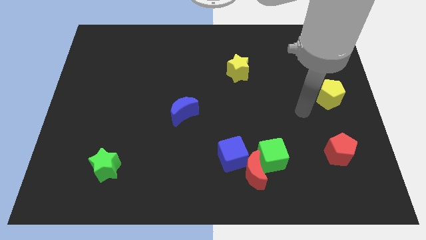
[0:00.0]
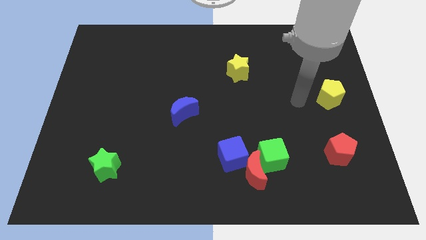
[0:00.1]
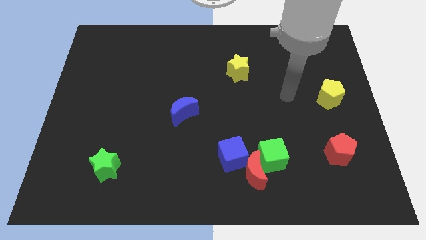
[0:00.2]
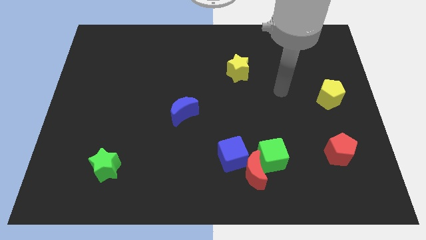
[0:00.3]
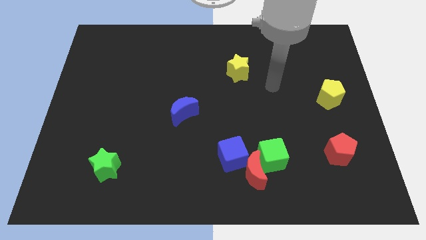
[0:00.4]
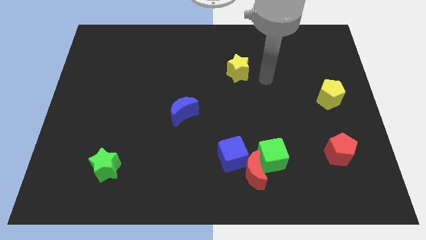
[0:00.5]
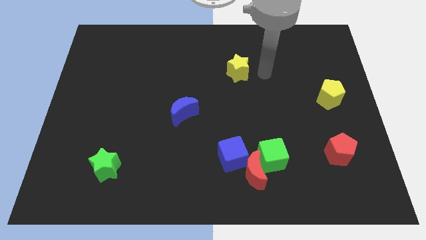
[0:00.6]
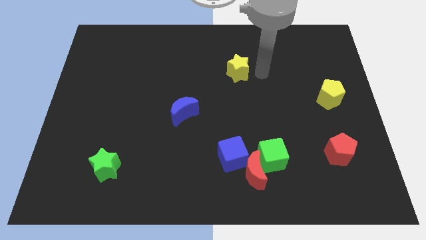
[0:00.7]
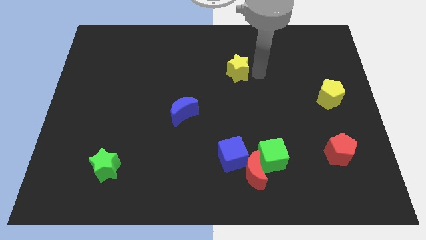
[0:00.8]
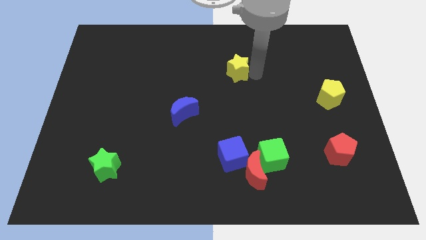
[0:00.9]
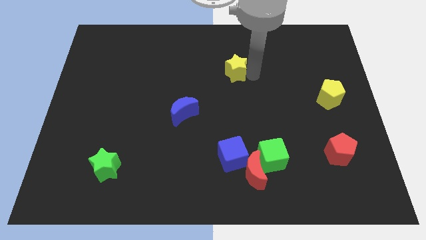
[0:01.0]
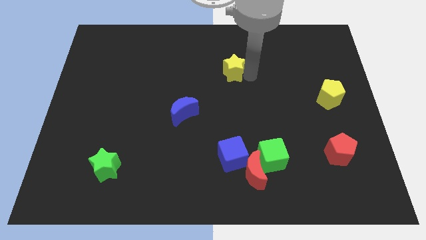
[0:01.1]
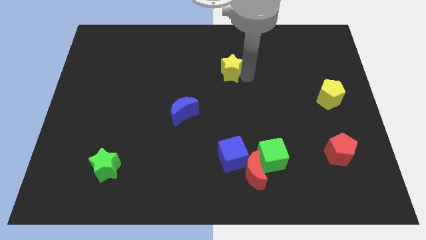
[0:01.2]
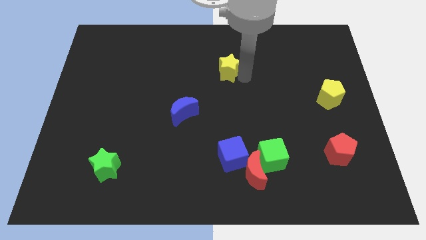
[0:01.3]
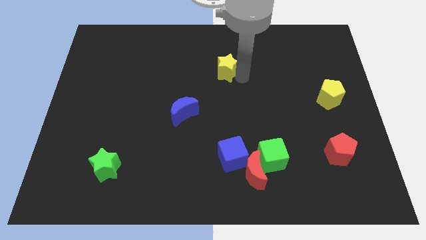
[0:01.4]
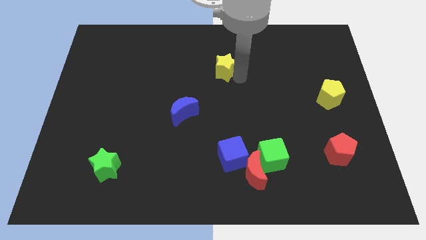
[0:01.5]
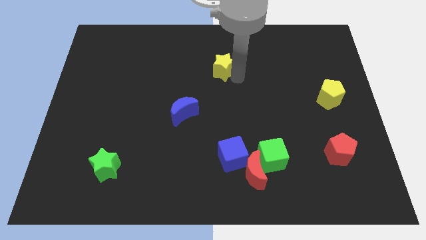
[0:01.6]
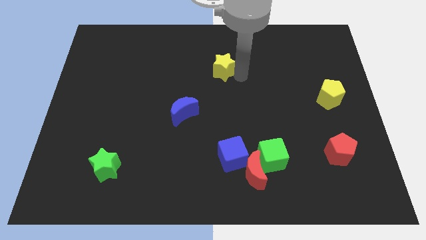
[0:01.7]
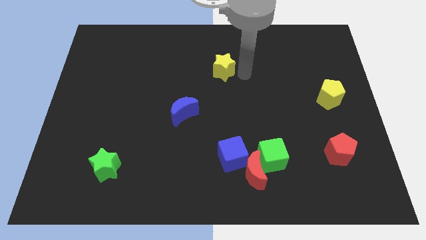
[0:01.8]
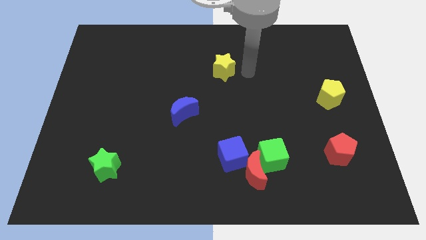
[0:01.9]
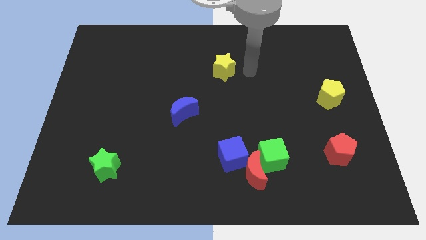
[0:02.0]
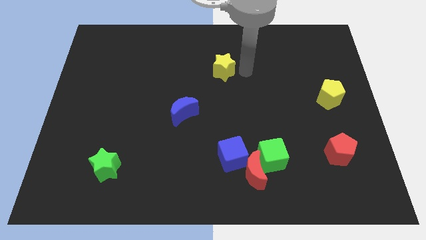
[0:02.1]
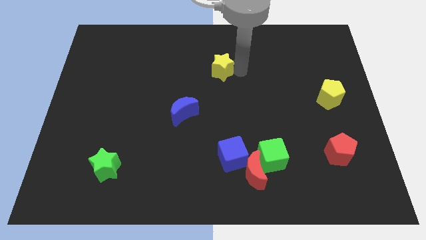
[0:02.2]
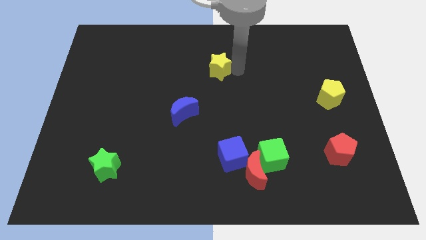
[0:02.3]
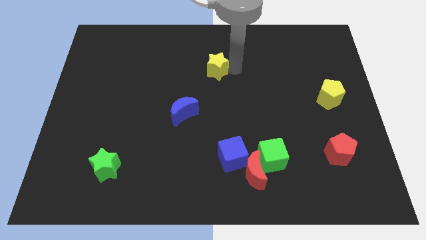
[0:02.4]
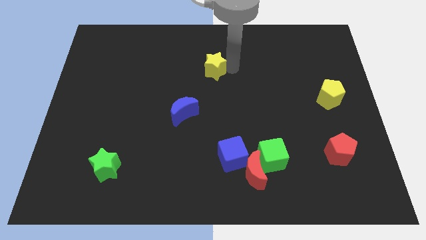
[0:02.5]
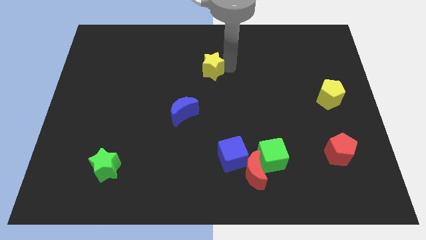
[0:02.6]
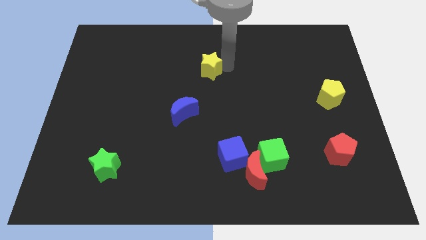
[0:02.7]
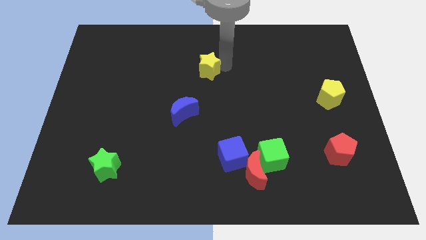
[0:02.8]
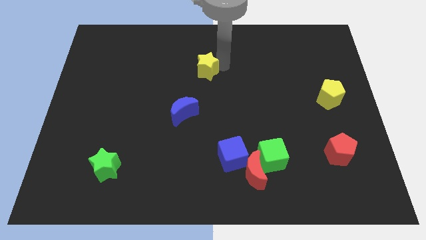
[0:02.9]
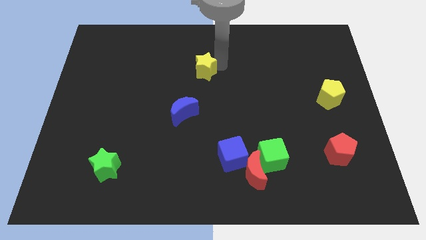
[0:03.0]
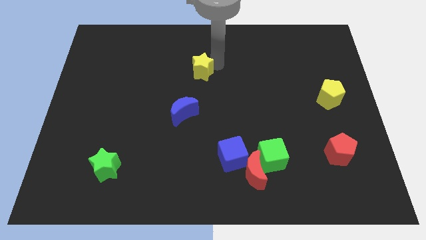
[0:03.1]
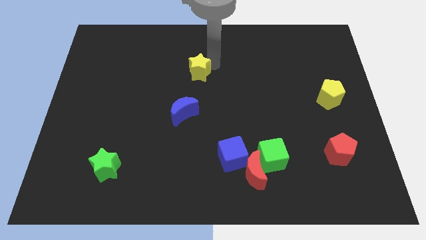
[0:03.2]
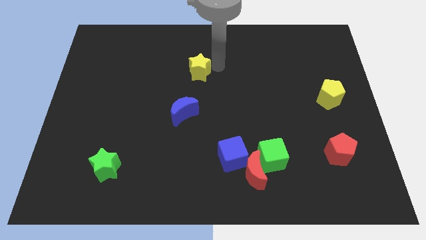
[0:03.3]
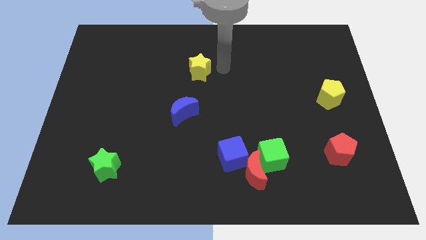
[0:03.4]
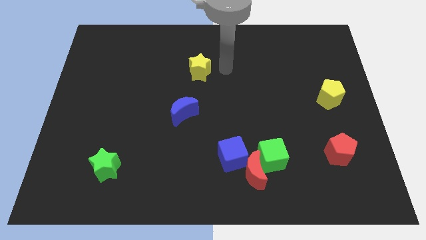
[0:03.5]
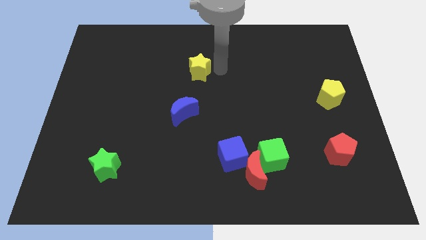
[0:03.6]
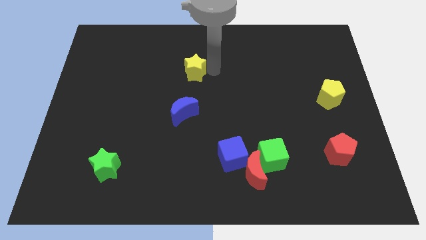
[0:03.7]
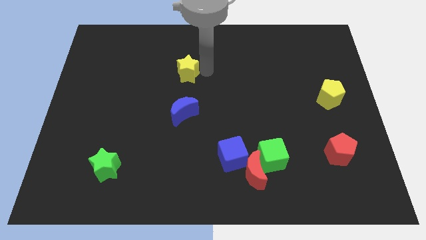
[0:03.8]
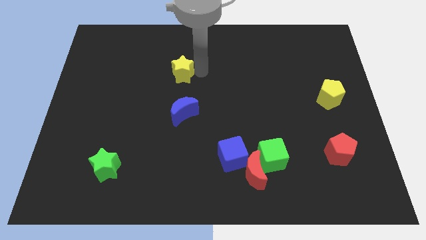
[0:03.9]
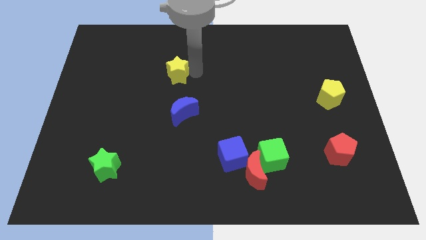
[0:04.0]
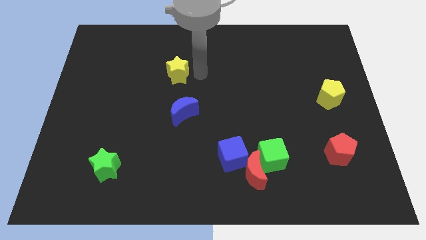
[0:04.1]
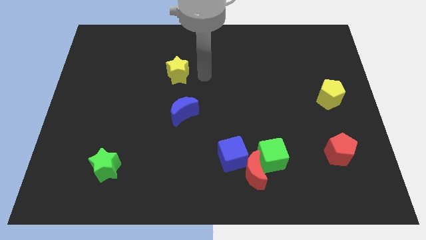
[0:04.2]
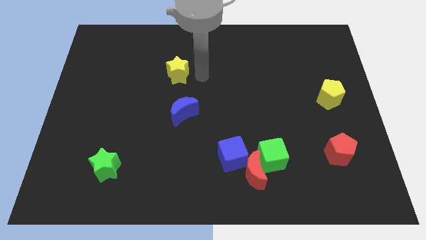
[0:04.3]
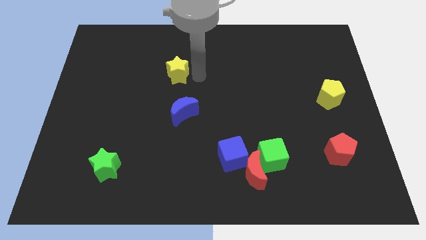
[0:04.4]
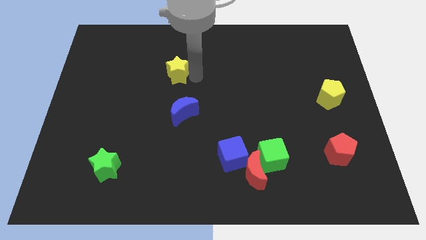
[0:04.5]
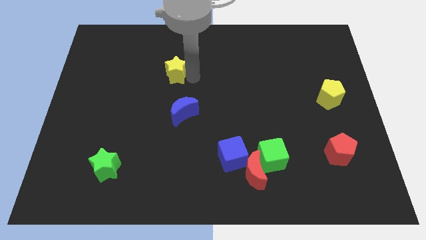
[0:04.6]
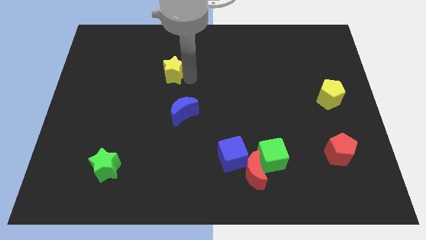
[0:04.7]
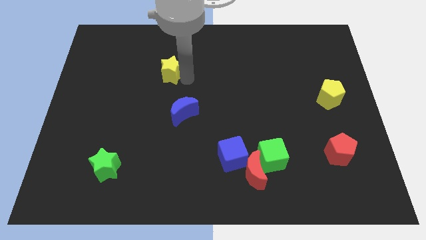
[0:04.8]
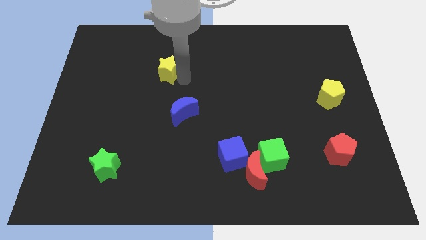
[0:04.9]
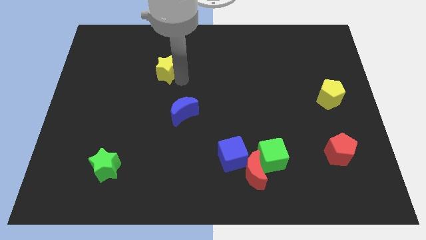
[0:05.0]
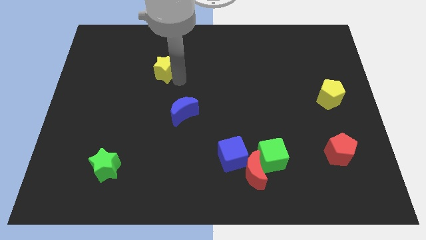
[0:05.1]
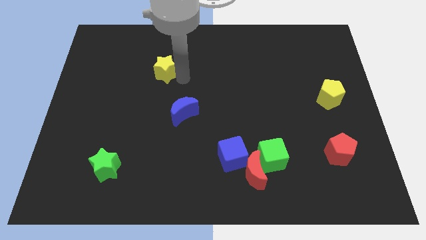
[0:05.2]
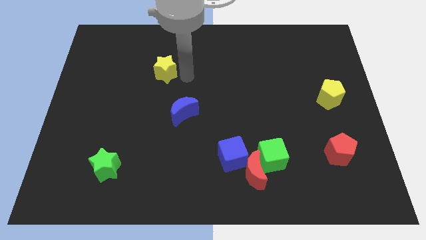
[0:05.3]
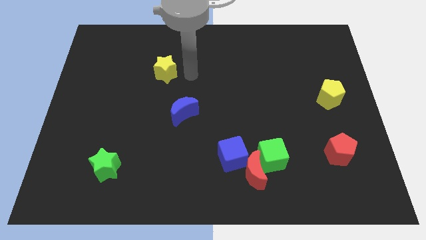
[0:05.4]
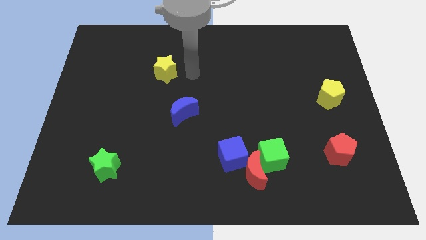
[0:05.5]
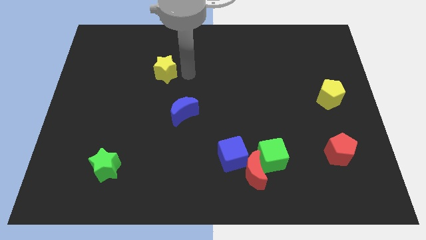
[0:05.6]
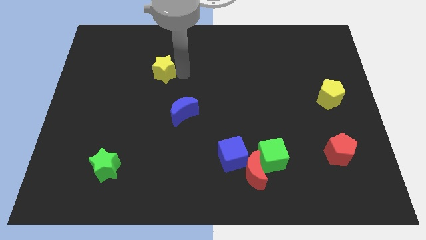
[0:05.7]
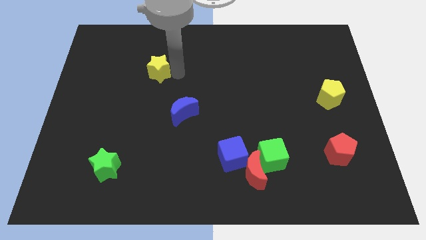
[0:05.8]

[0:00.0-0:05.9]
push the yellow star to the left

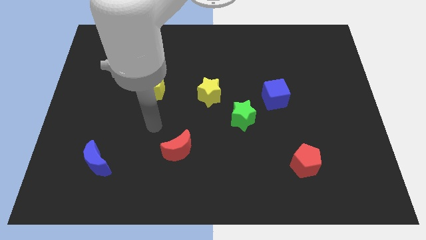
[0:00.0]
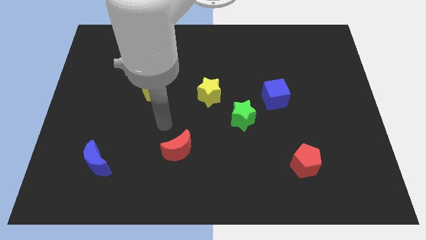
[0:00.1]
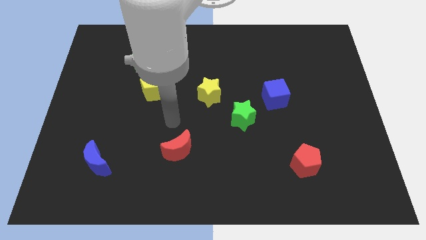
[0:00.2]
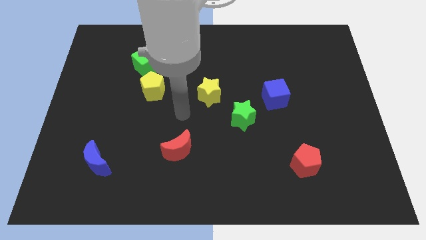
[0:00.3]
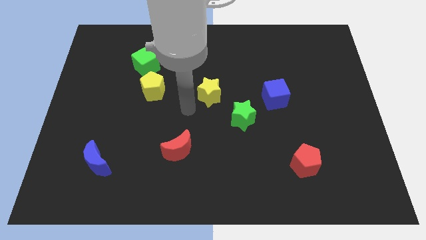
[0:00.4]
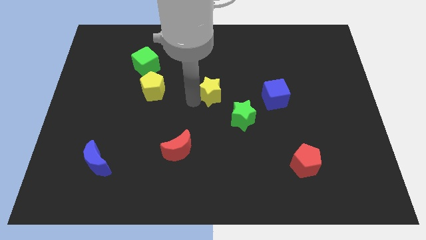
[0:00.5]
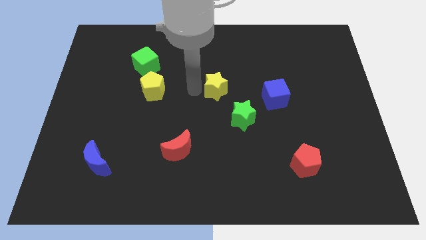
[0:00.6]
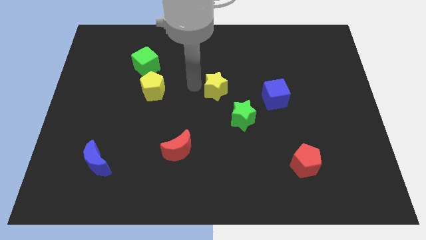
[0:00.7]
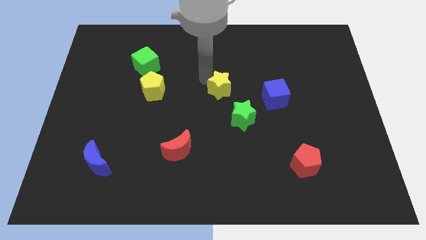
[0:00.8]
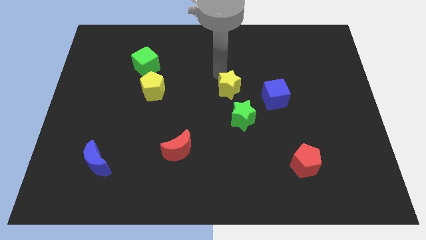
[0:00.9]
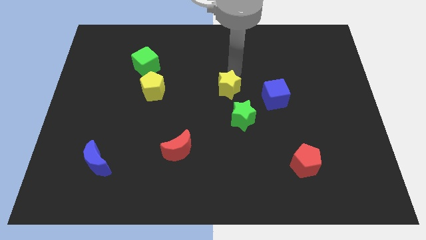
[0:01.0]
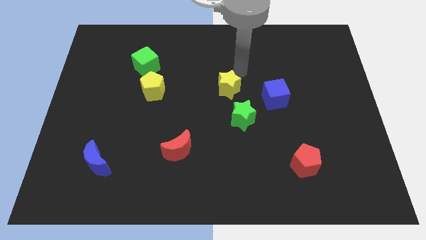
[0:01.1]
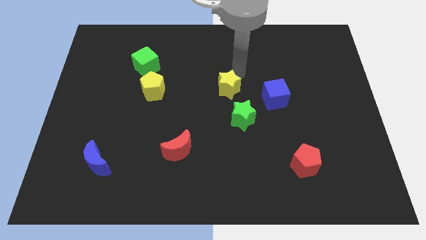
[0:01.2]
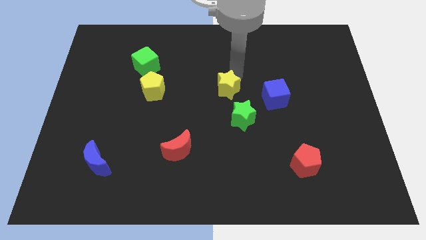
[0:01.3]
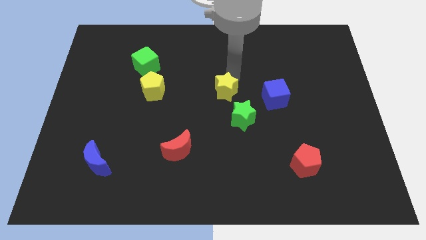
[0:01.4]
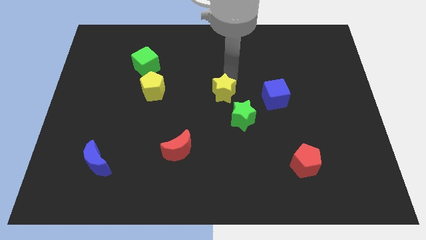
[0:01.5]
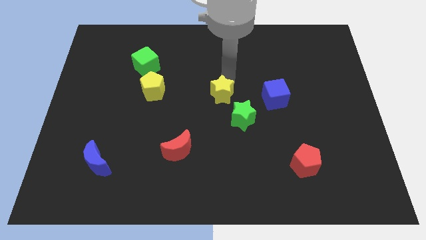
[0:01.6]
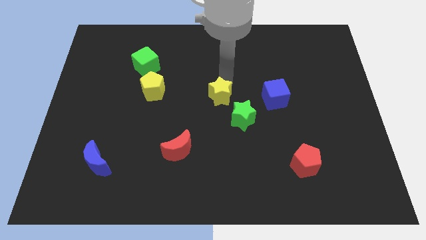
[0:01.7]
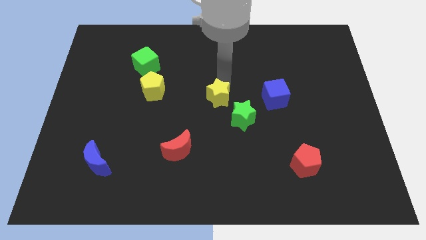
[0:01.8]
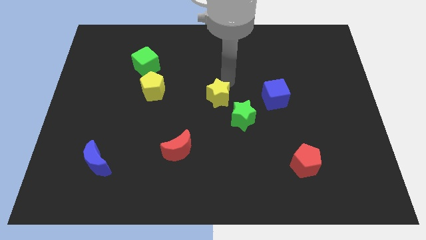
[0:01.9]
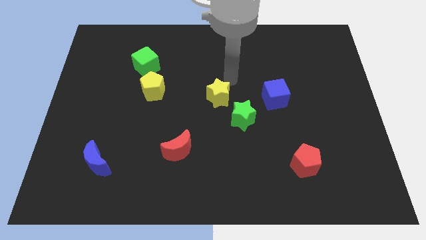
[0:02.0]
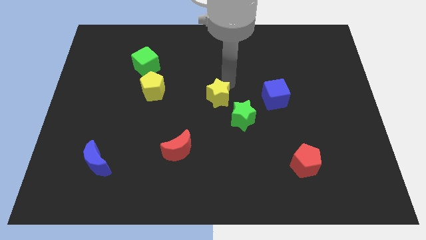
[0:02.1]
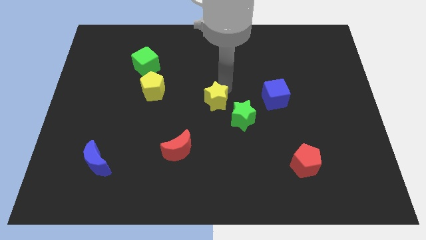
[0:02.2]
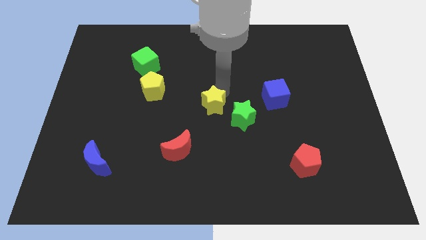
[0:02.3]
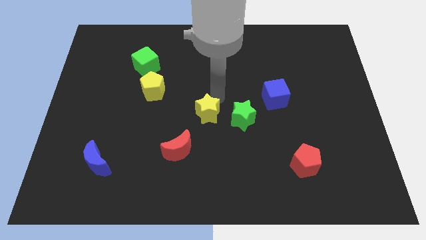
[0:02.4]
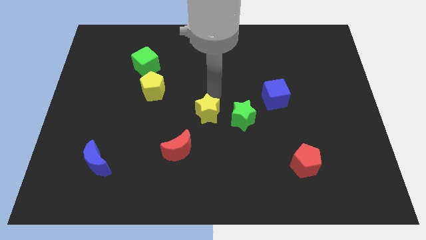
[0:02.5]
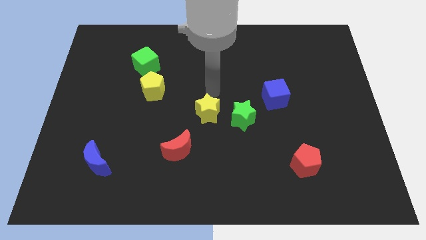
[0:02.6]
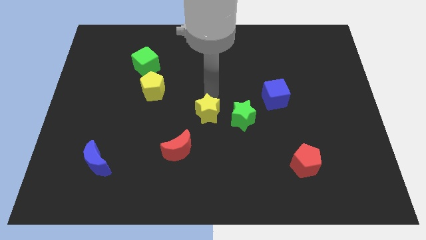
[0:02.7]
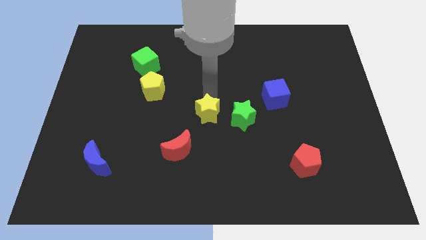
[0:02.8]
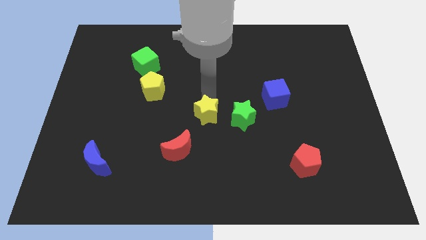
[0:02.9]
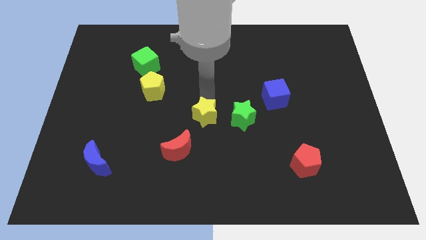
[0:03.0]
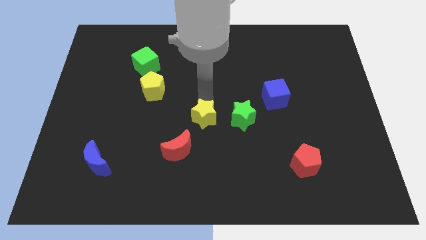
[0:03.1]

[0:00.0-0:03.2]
push the yellow star somewhat downwards
